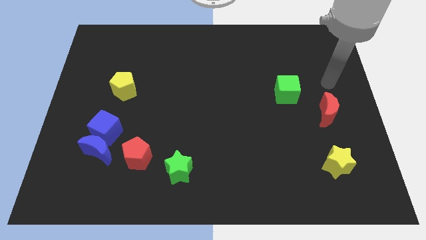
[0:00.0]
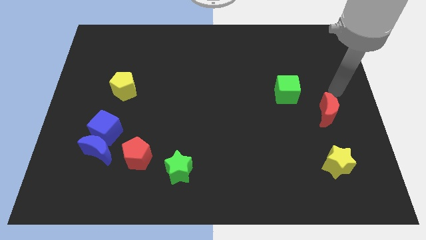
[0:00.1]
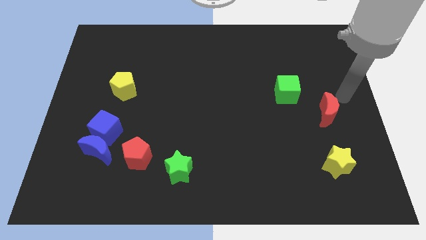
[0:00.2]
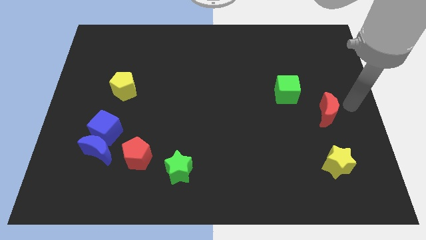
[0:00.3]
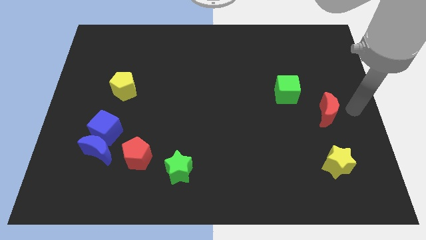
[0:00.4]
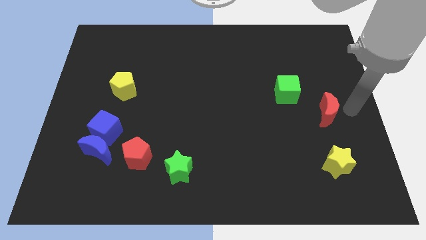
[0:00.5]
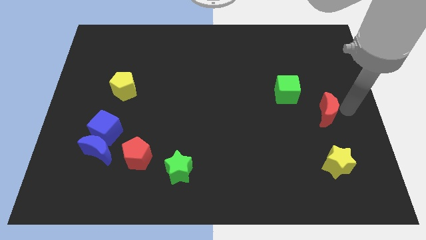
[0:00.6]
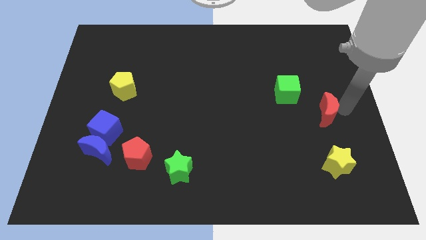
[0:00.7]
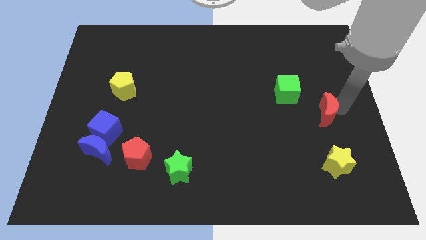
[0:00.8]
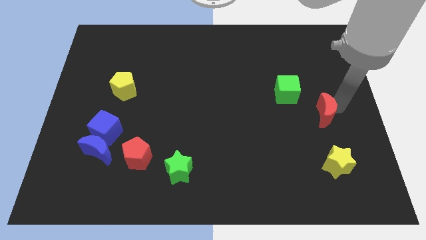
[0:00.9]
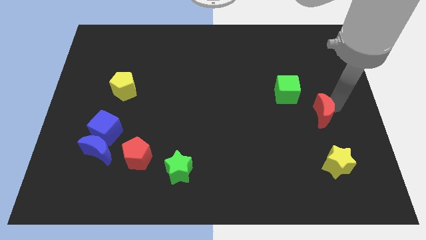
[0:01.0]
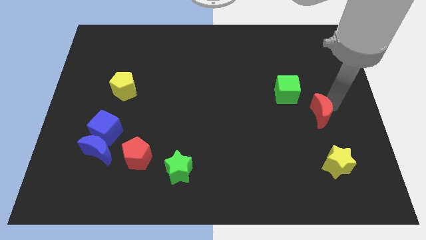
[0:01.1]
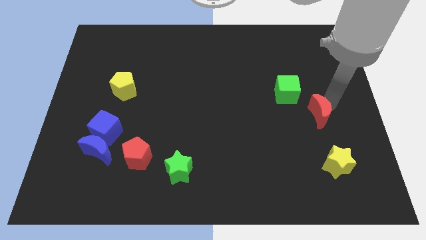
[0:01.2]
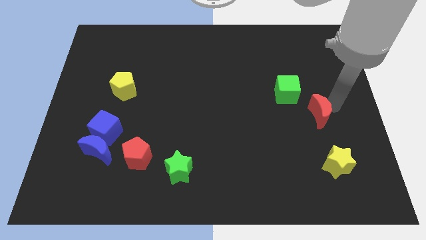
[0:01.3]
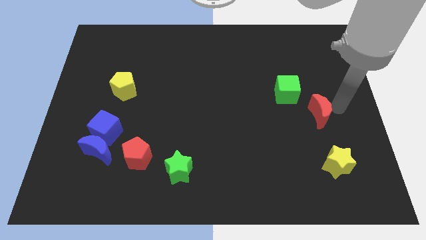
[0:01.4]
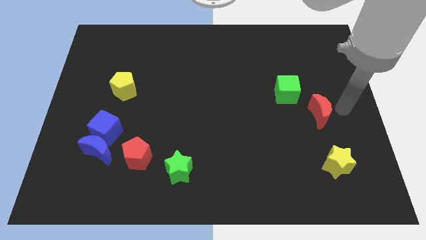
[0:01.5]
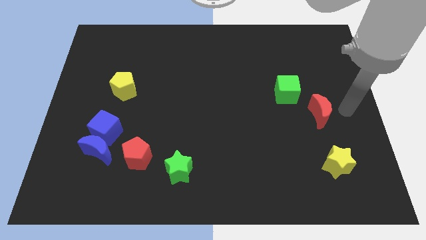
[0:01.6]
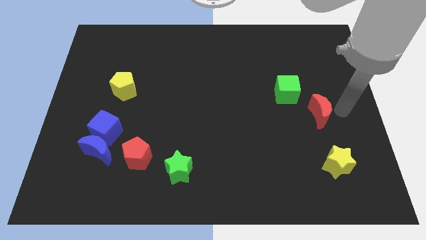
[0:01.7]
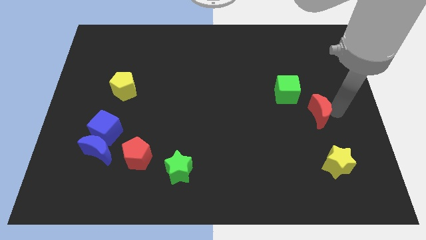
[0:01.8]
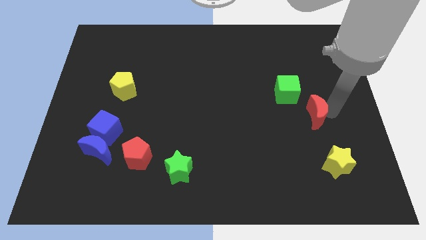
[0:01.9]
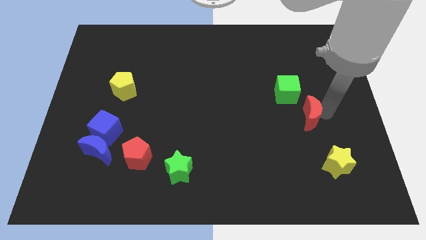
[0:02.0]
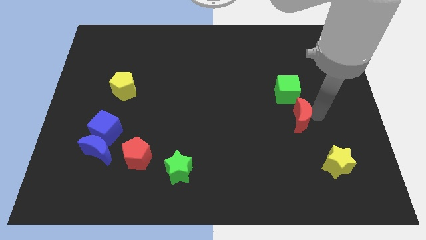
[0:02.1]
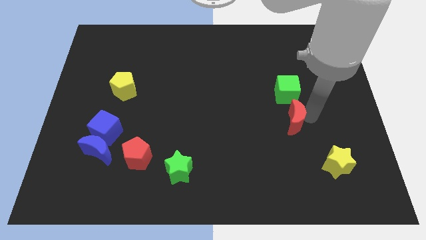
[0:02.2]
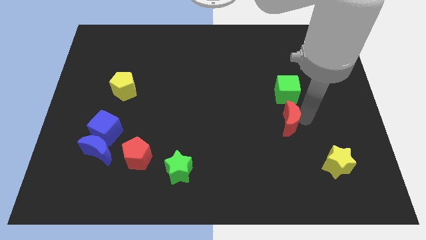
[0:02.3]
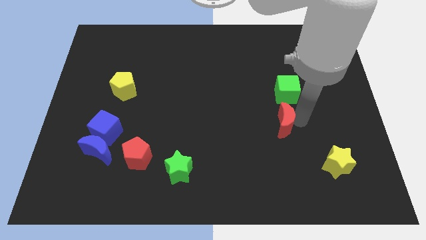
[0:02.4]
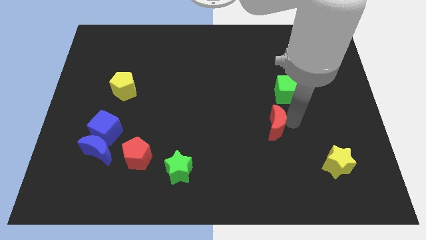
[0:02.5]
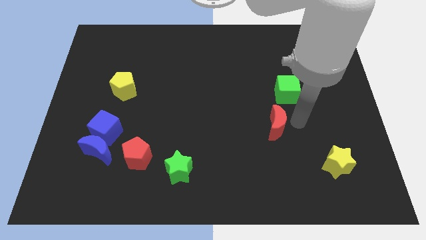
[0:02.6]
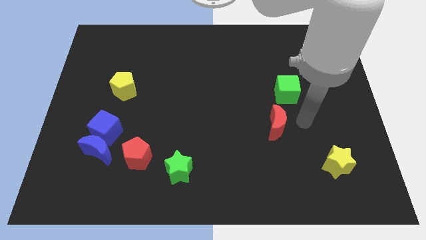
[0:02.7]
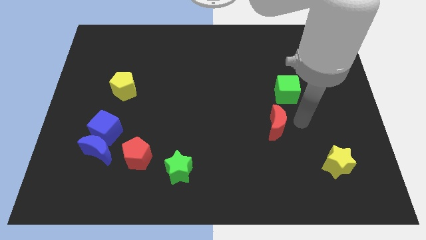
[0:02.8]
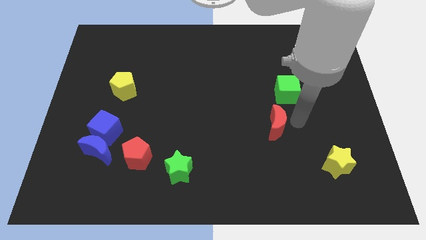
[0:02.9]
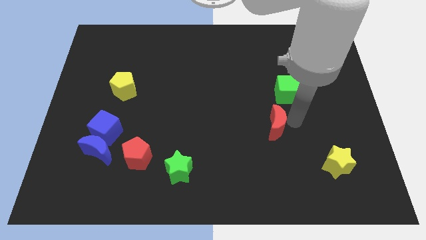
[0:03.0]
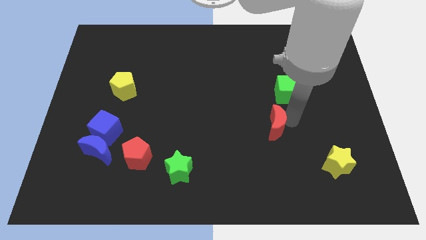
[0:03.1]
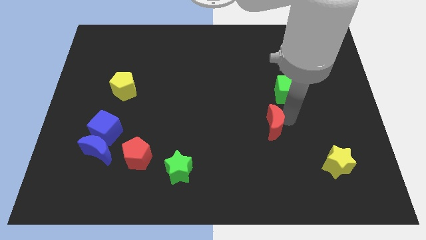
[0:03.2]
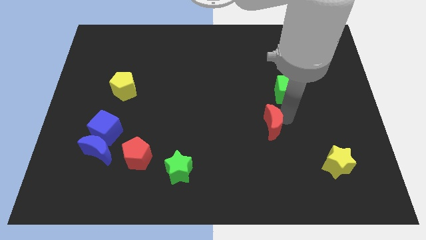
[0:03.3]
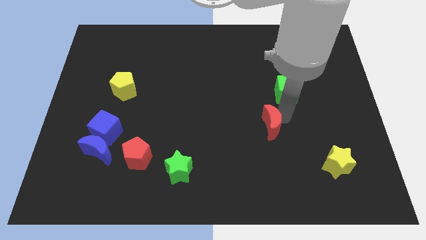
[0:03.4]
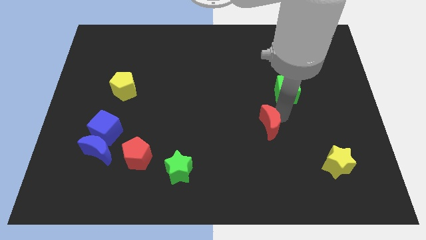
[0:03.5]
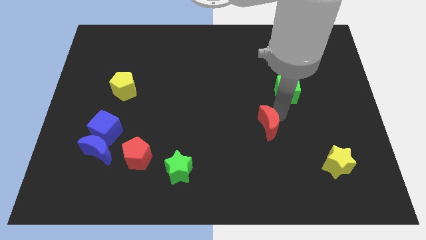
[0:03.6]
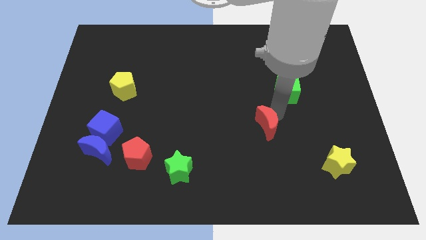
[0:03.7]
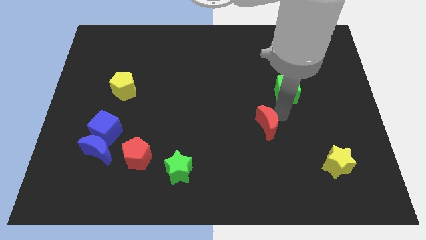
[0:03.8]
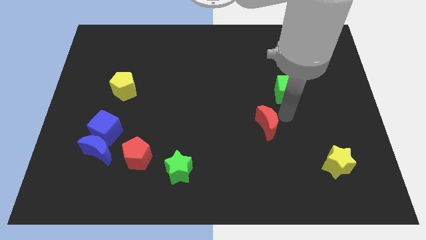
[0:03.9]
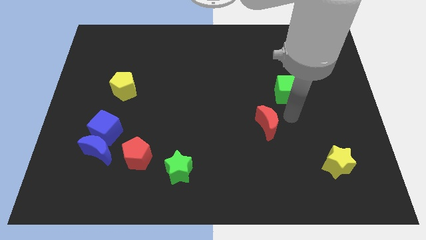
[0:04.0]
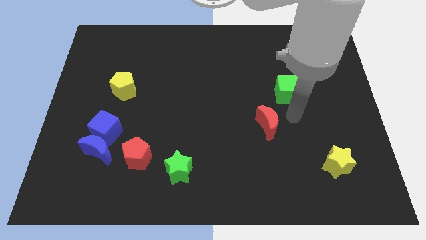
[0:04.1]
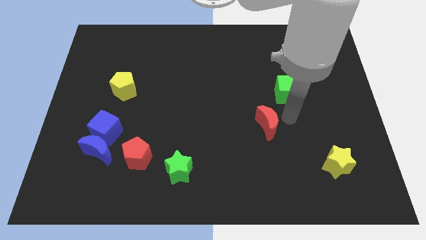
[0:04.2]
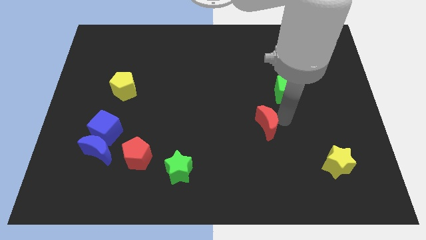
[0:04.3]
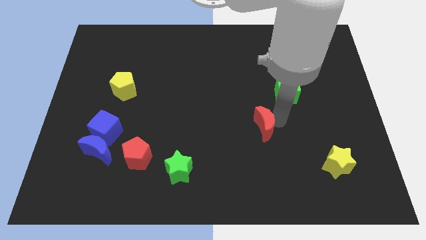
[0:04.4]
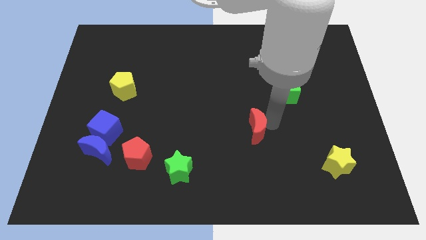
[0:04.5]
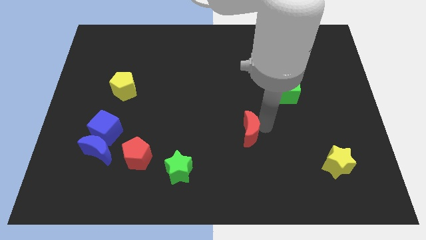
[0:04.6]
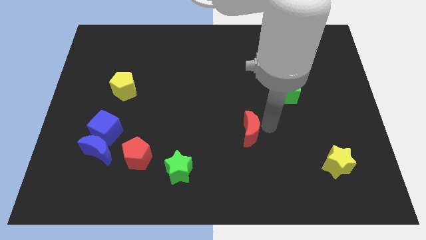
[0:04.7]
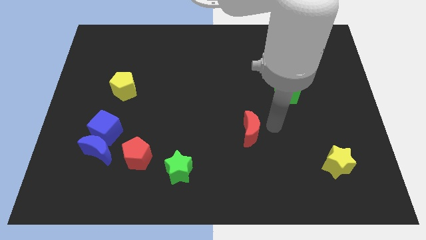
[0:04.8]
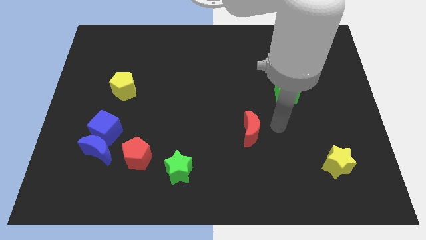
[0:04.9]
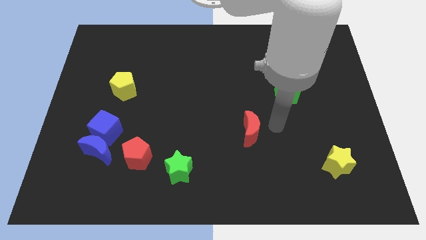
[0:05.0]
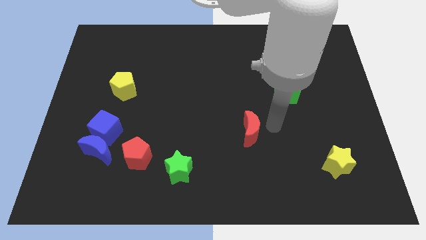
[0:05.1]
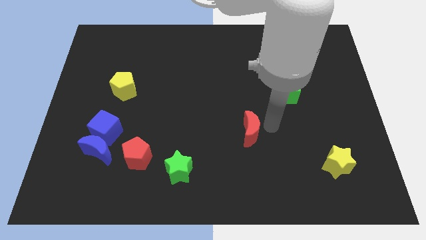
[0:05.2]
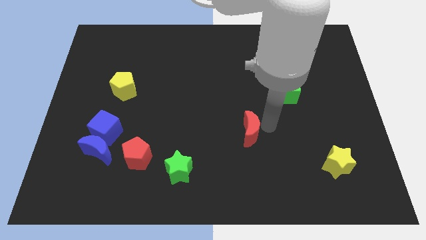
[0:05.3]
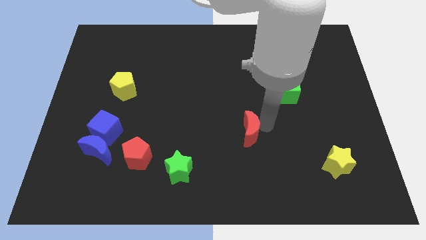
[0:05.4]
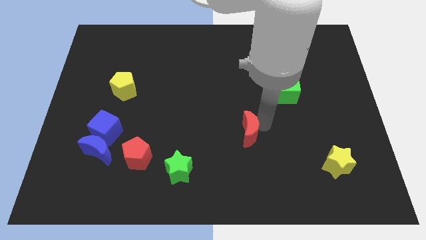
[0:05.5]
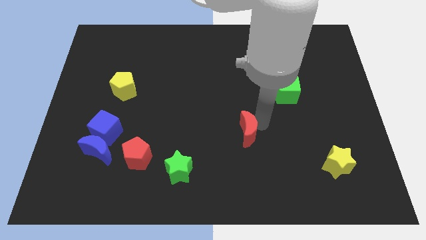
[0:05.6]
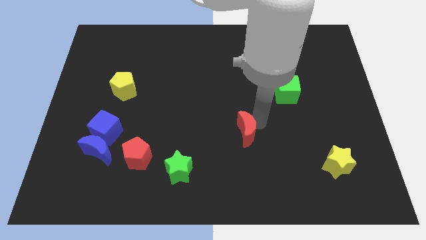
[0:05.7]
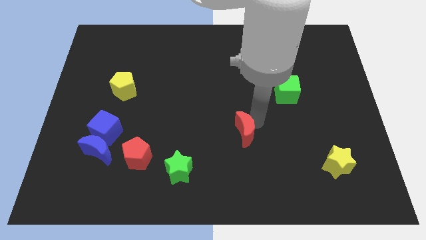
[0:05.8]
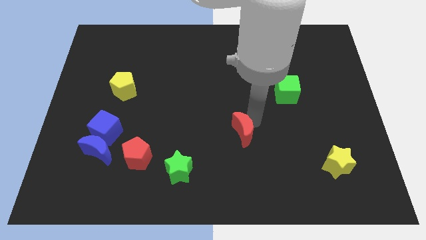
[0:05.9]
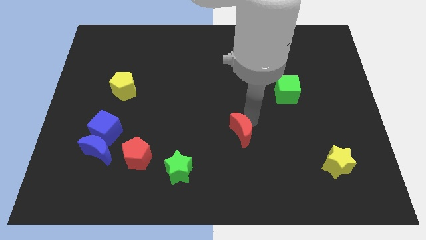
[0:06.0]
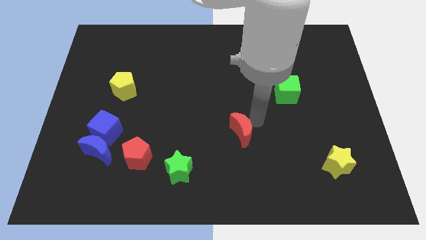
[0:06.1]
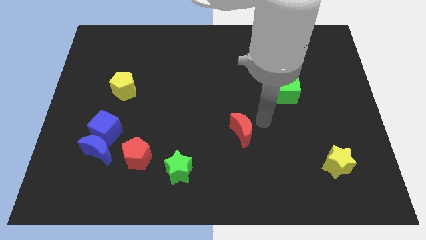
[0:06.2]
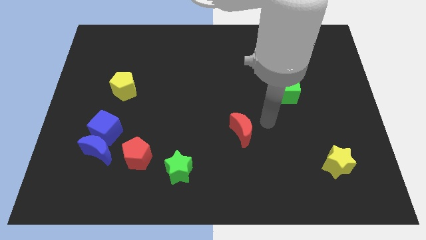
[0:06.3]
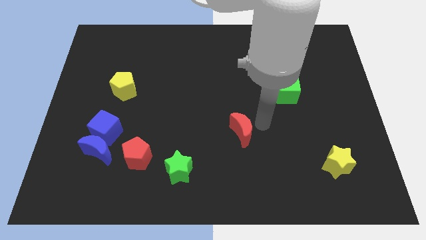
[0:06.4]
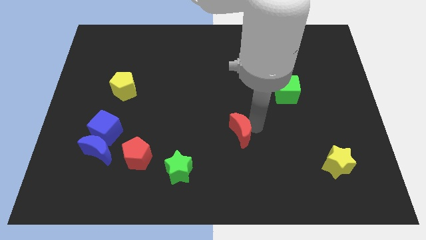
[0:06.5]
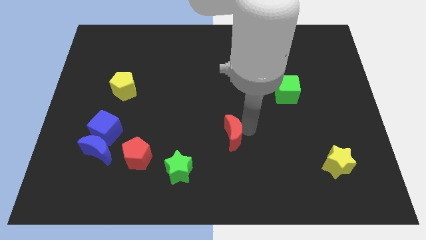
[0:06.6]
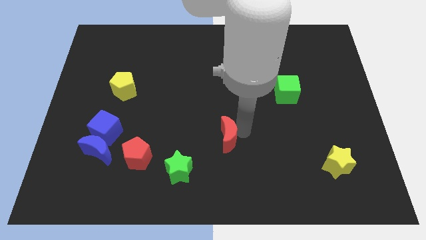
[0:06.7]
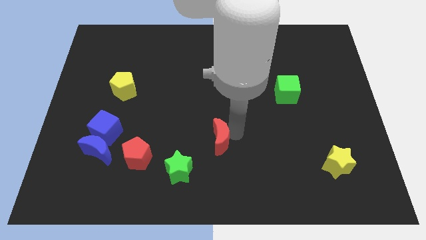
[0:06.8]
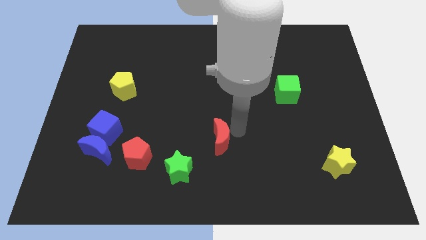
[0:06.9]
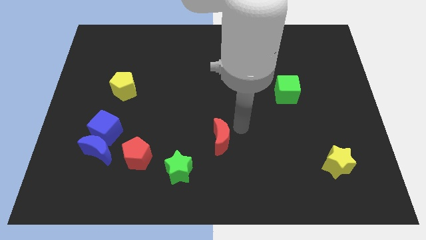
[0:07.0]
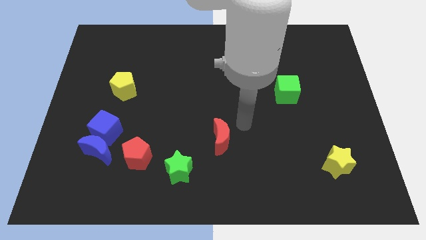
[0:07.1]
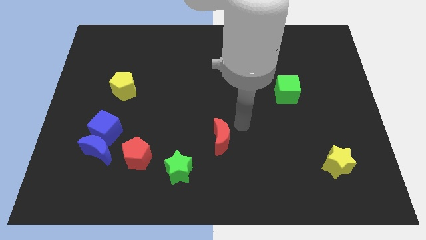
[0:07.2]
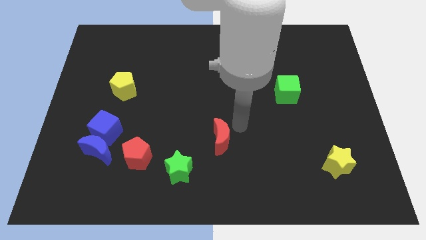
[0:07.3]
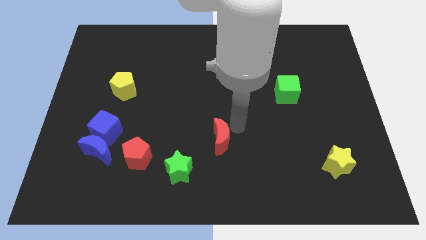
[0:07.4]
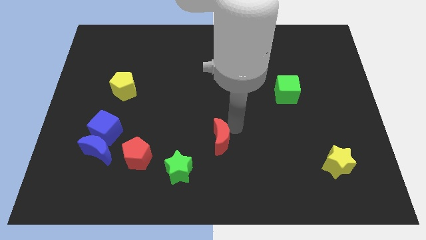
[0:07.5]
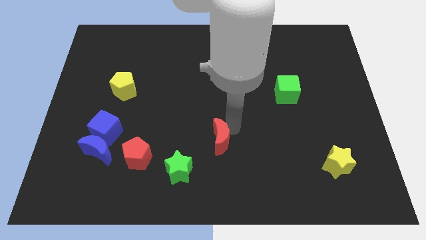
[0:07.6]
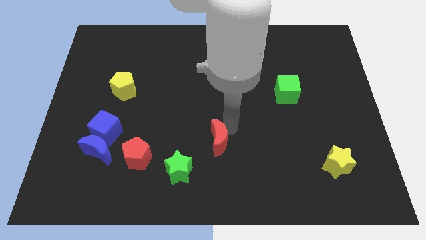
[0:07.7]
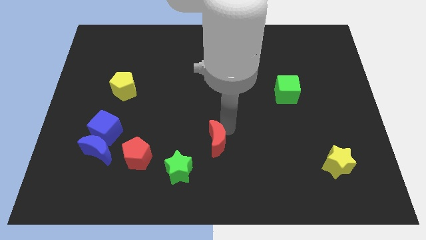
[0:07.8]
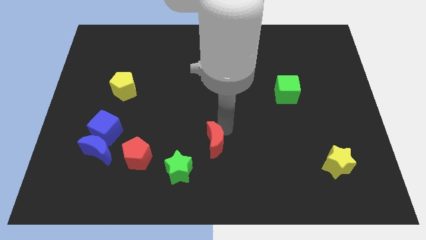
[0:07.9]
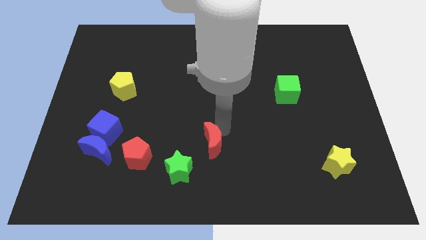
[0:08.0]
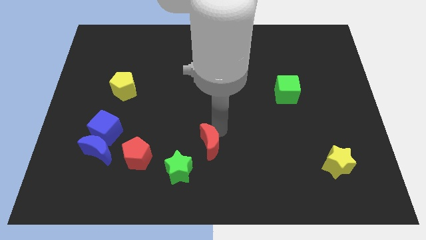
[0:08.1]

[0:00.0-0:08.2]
move the red moon to the right side of the red pentagon
